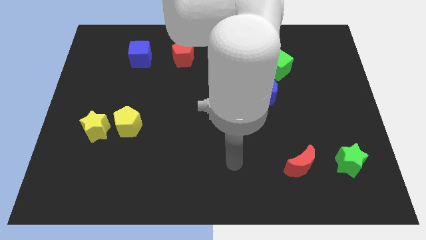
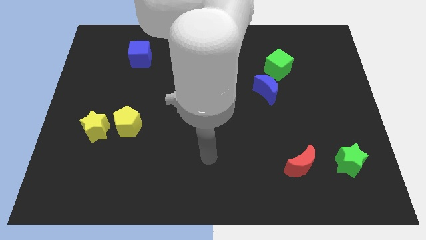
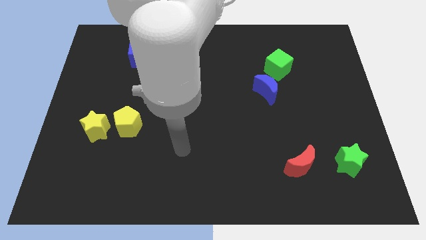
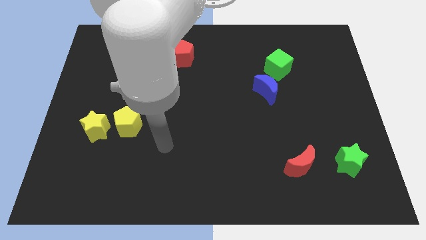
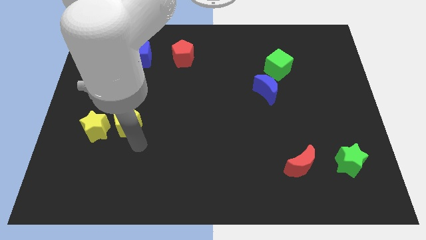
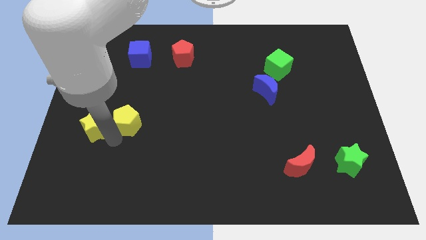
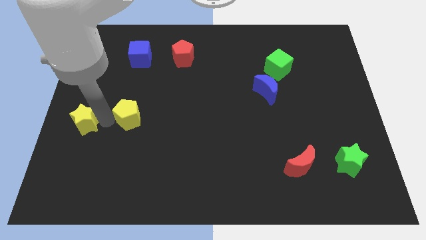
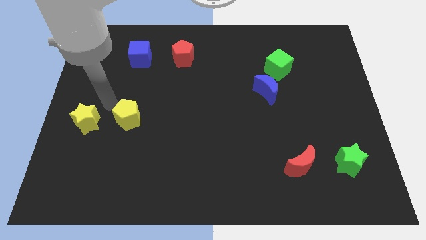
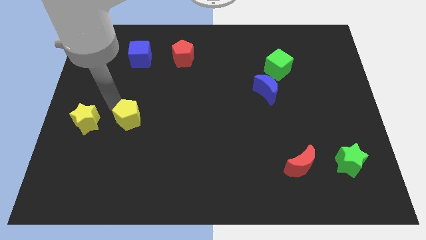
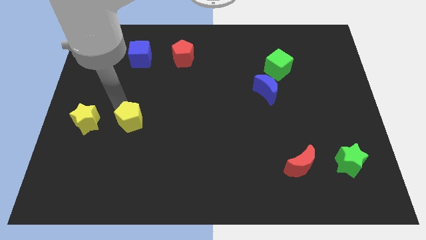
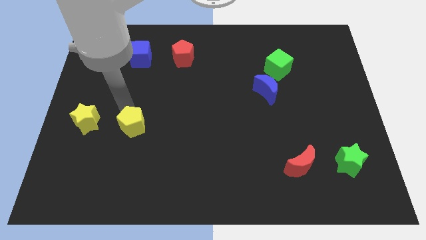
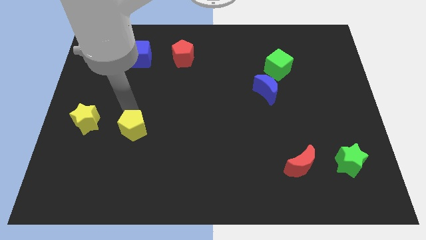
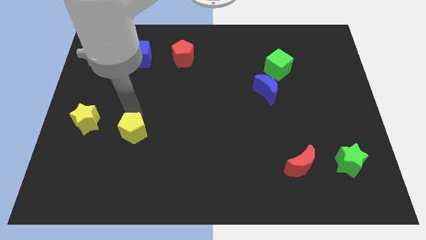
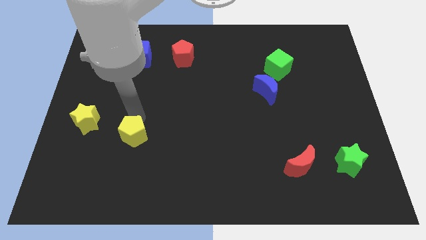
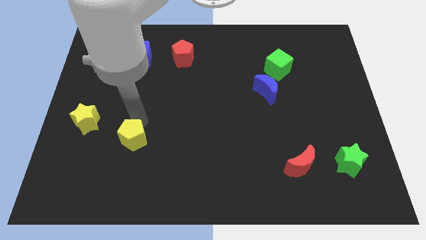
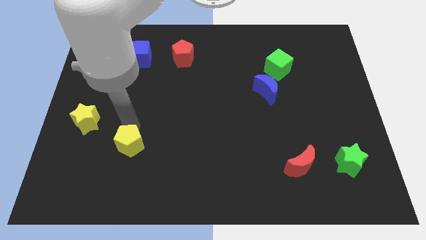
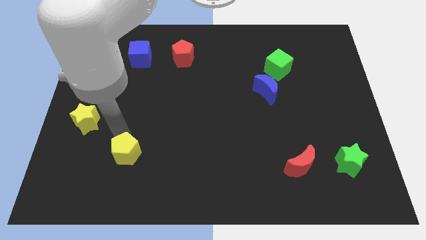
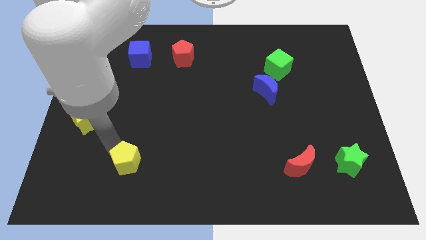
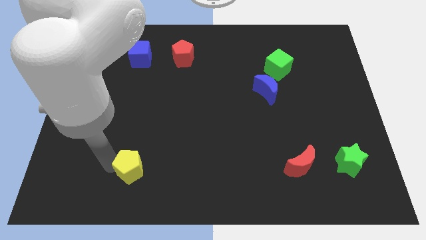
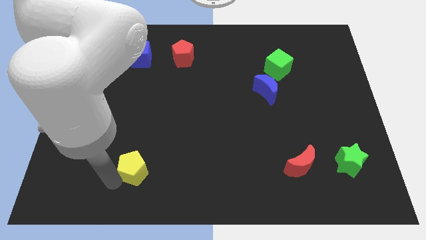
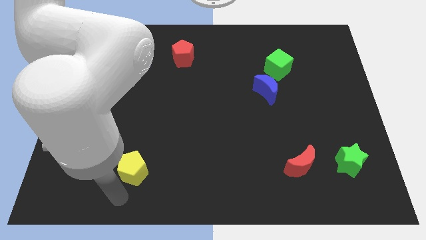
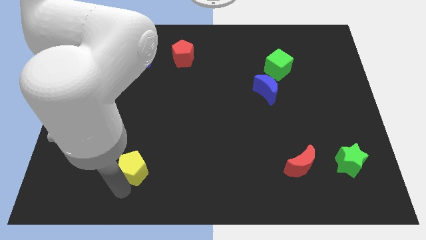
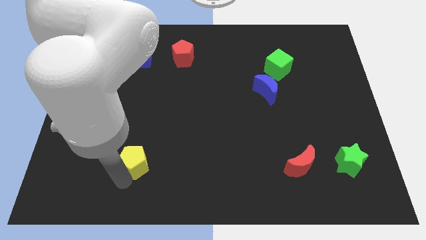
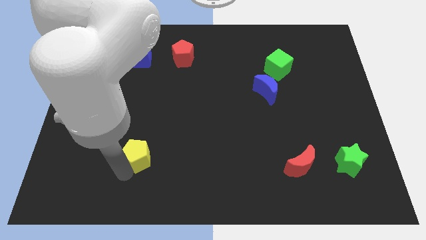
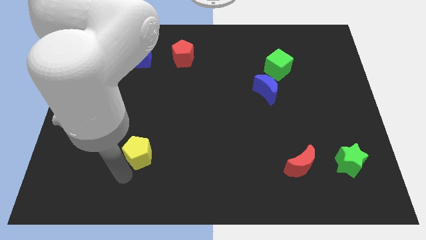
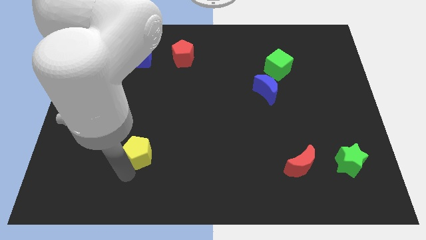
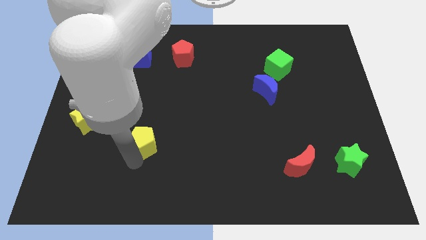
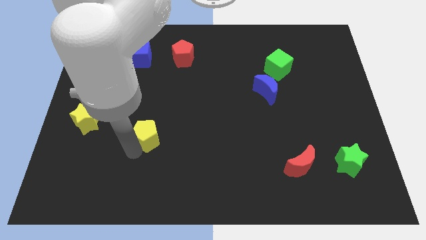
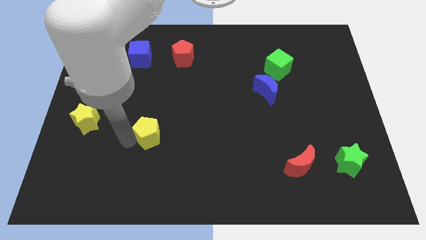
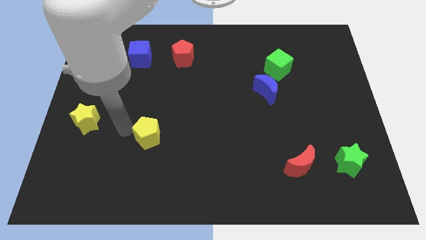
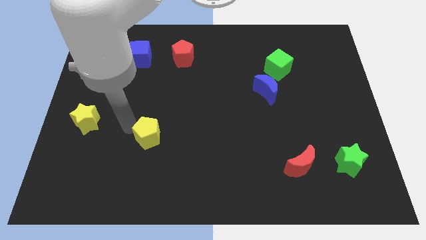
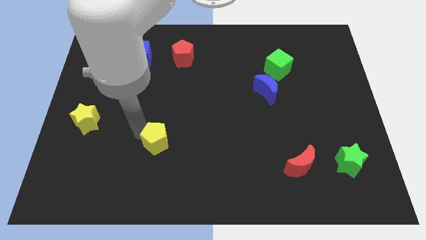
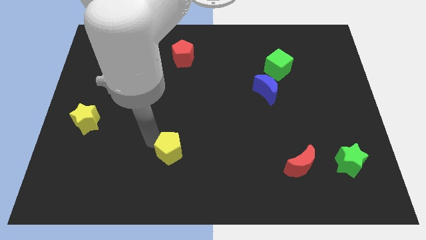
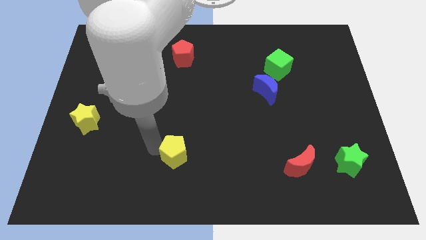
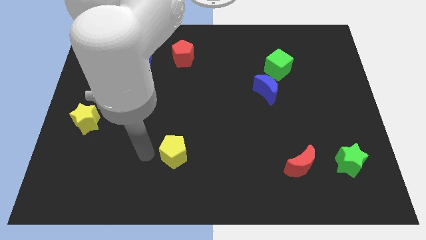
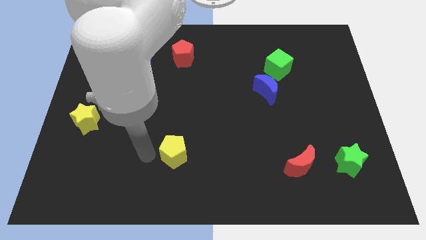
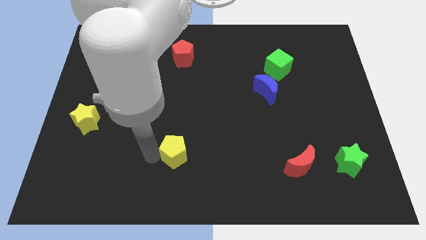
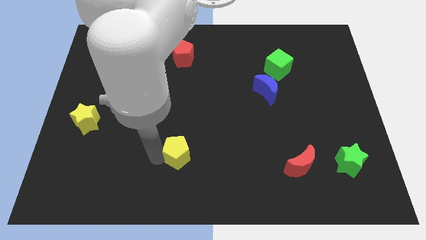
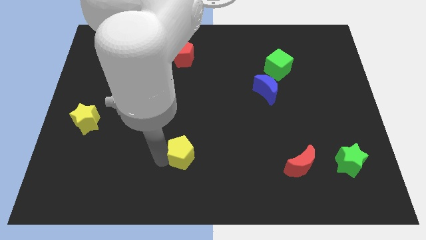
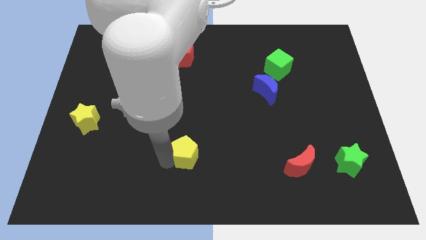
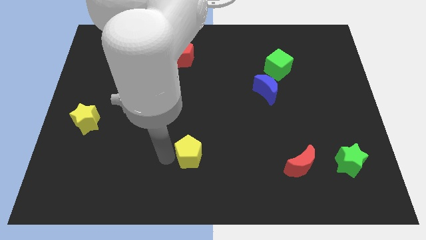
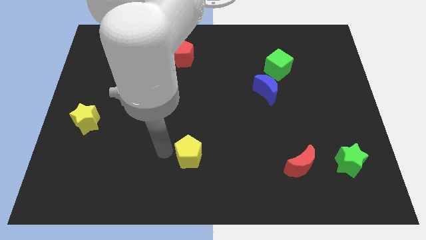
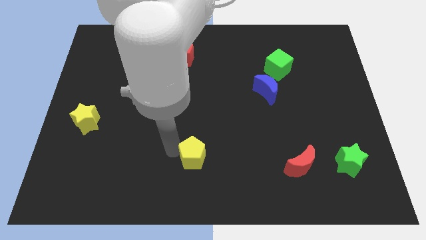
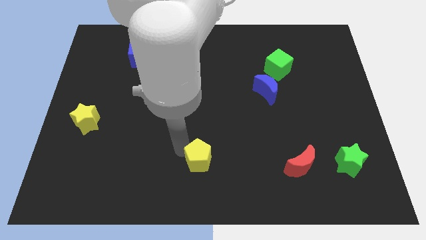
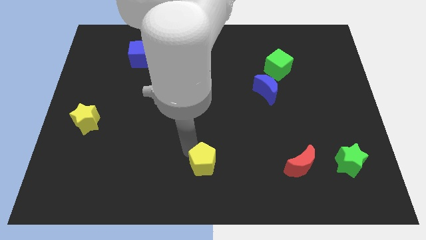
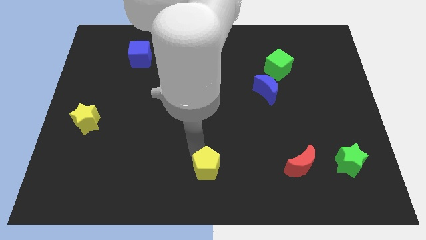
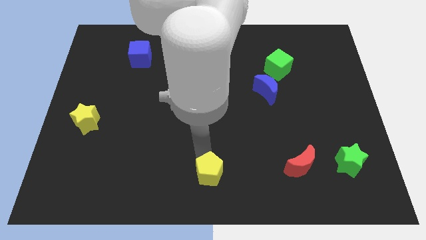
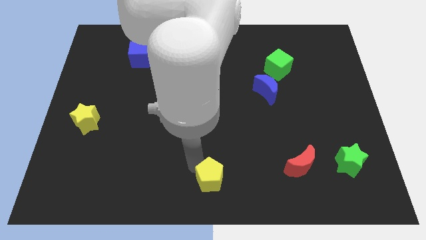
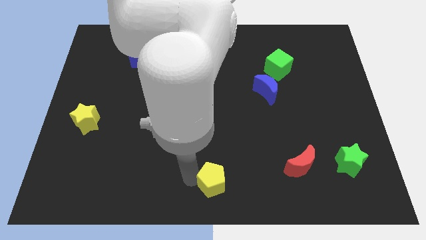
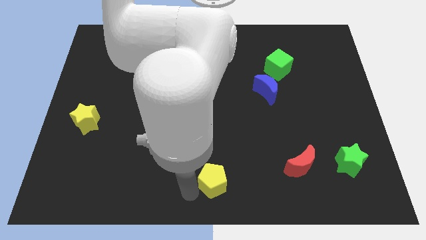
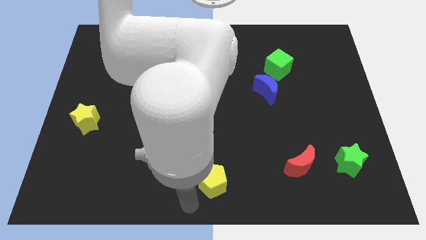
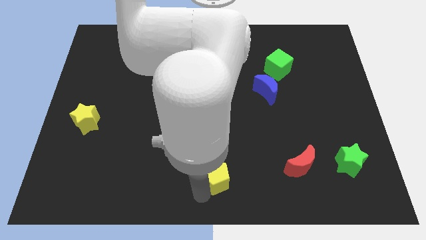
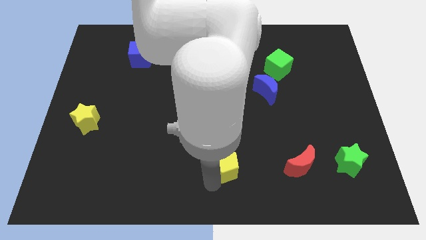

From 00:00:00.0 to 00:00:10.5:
slide the yellow pentagon left of the red moon

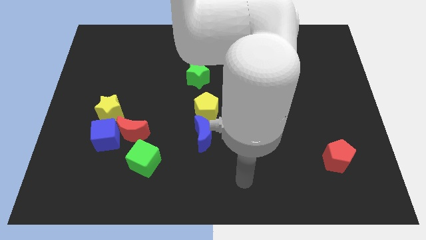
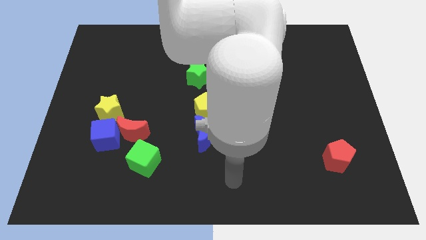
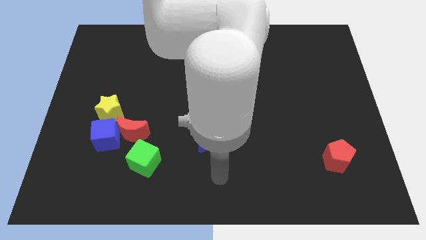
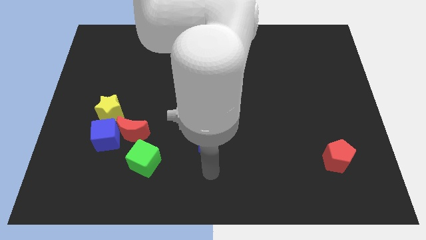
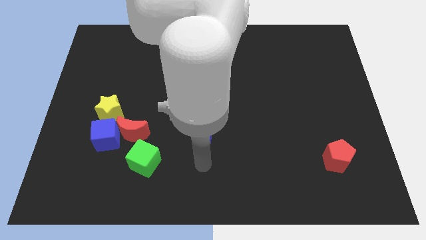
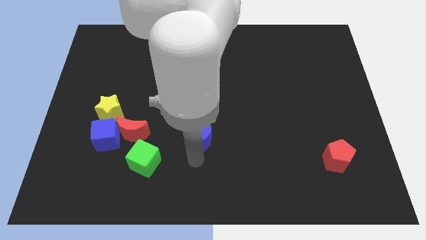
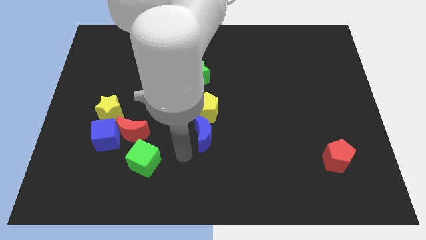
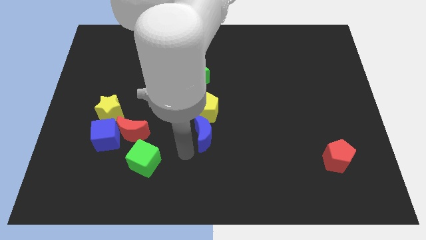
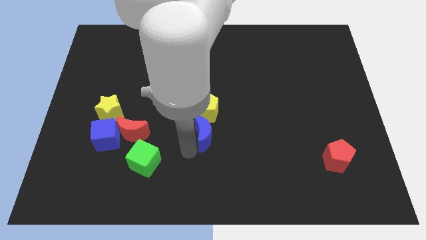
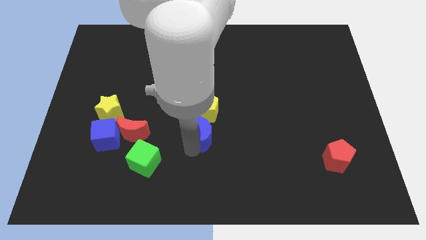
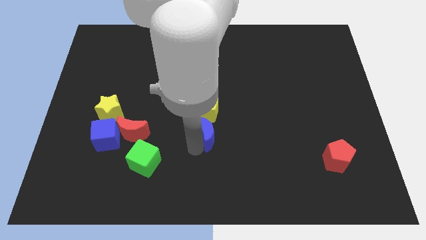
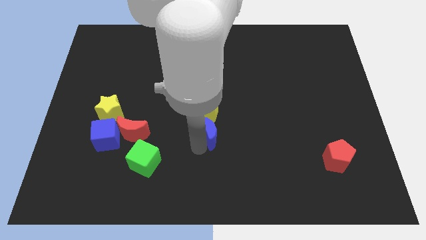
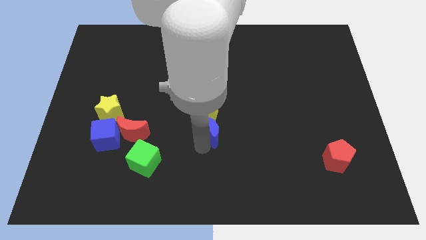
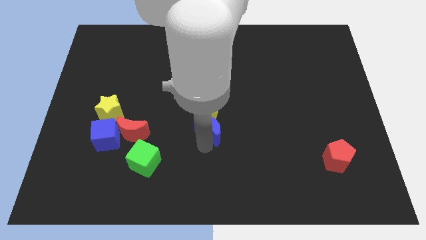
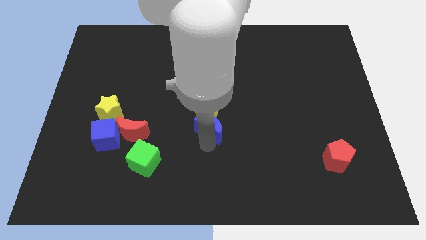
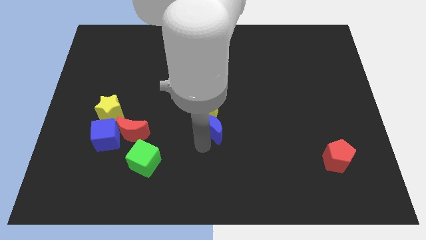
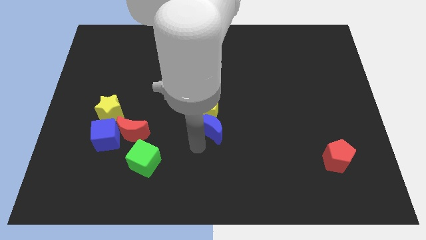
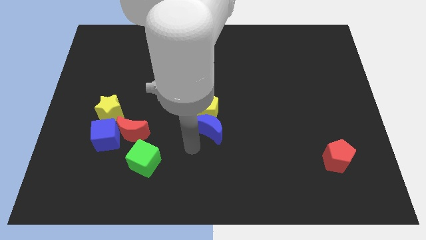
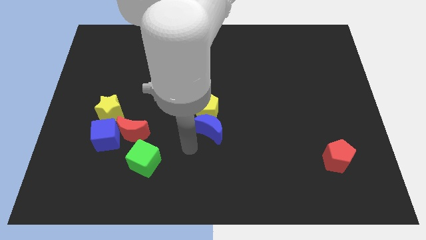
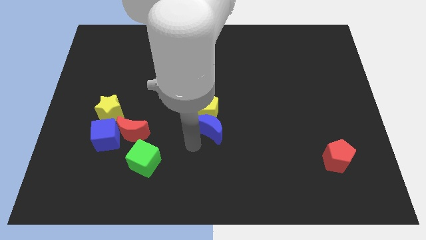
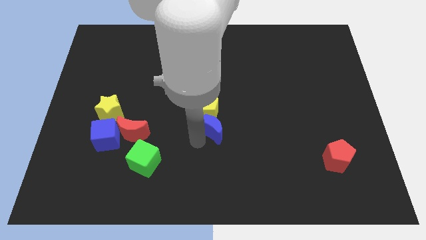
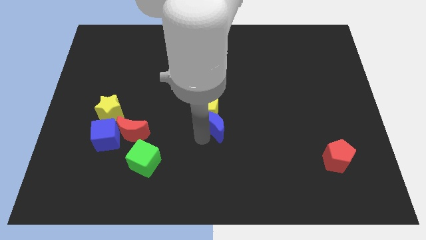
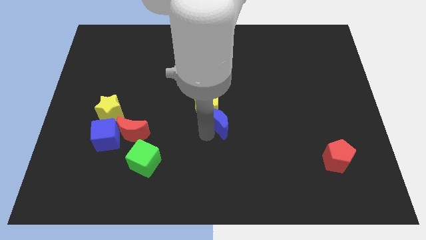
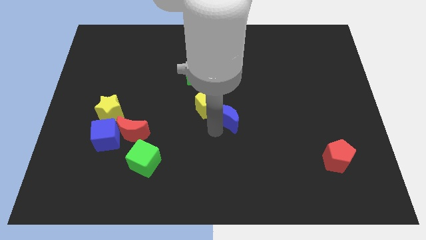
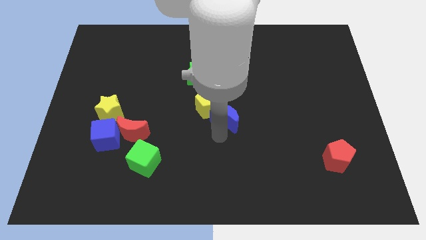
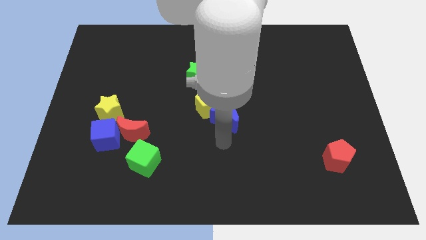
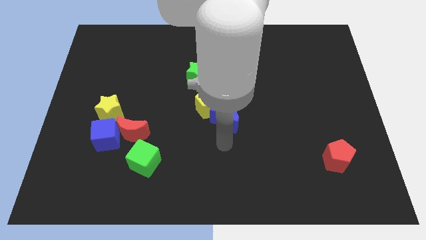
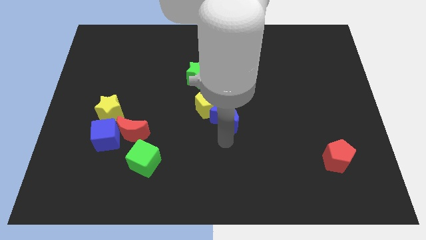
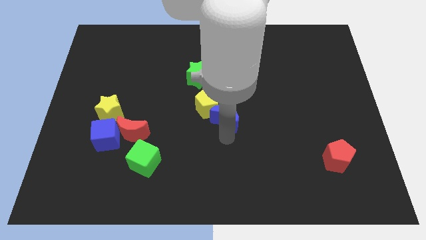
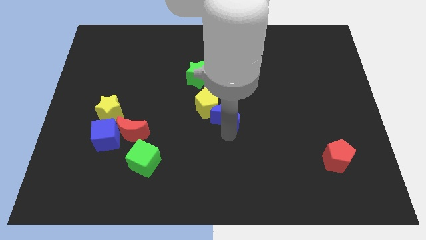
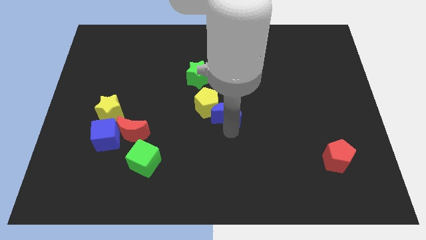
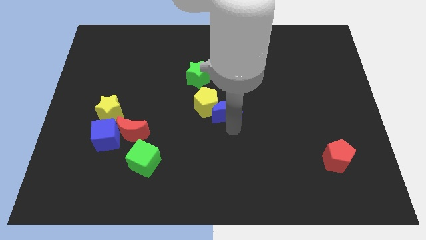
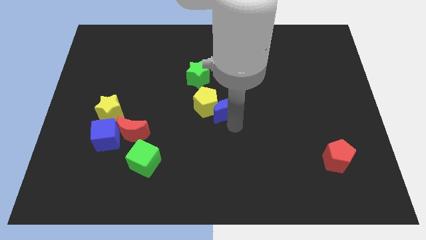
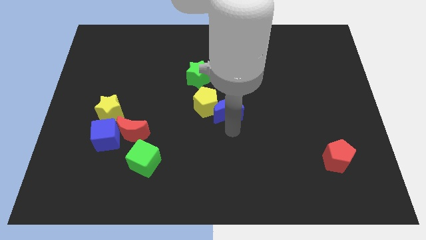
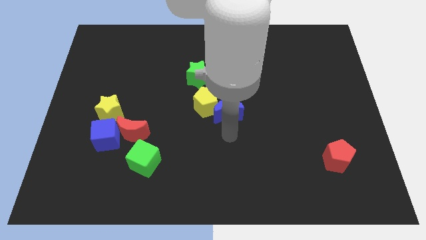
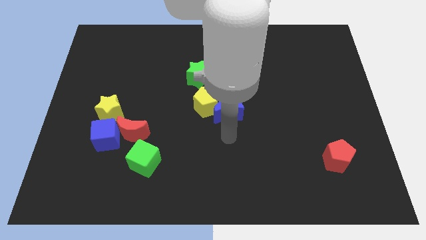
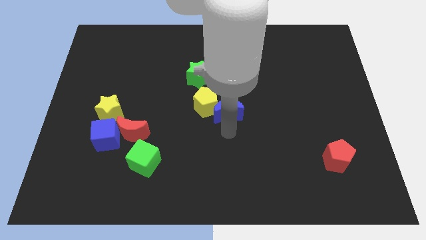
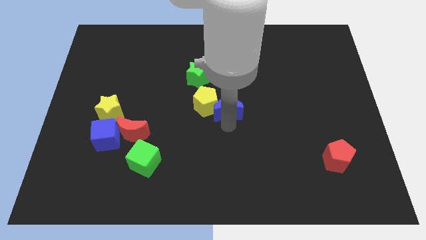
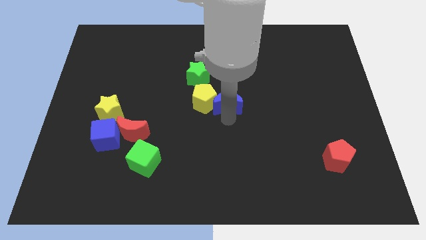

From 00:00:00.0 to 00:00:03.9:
move the blue moon to the top right side of the yellow pentagon
